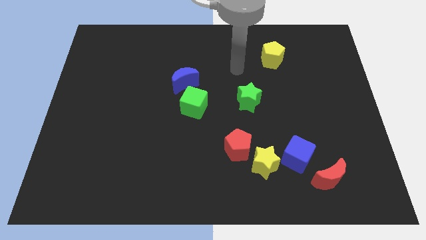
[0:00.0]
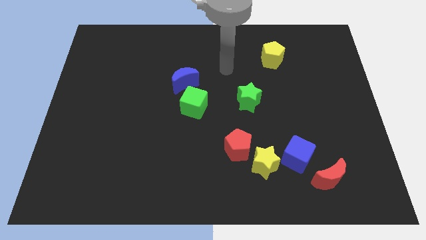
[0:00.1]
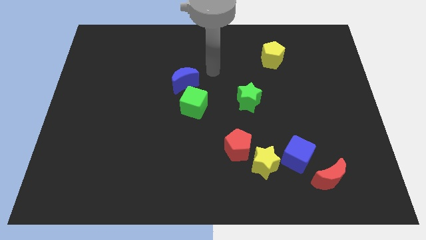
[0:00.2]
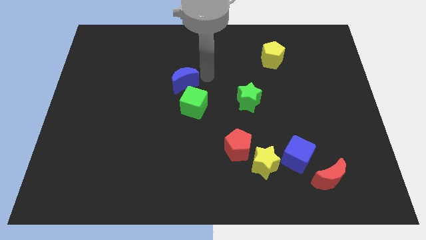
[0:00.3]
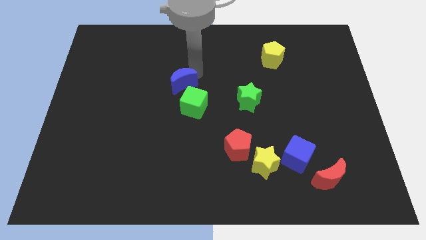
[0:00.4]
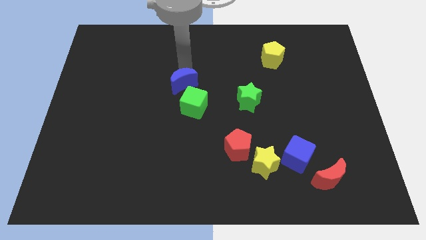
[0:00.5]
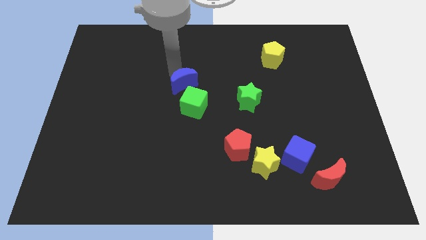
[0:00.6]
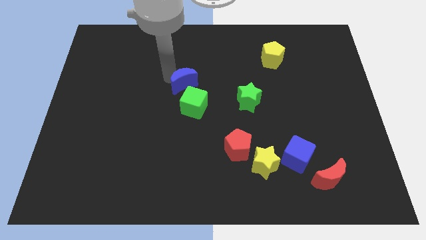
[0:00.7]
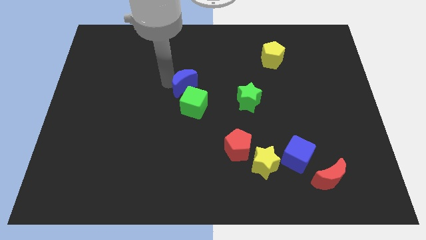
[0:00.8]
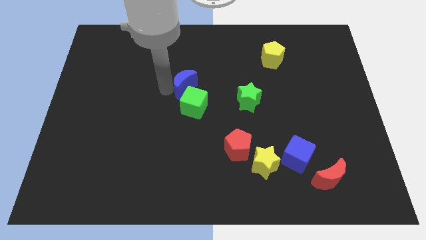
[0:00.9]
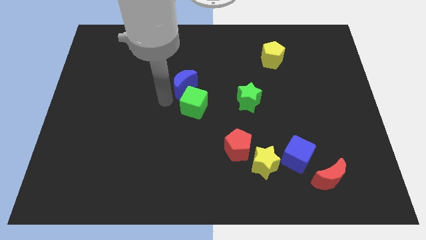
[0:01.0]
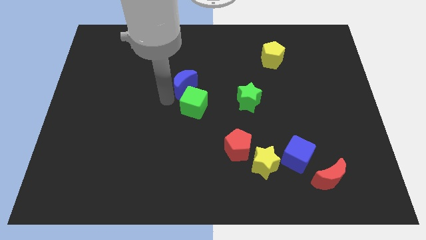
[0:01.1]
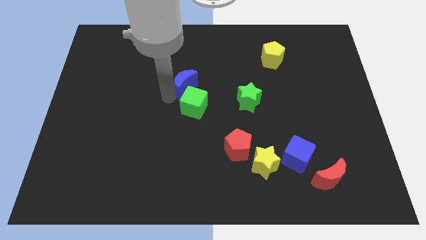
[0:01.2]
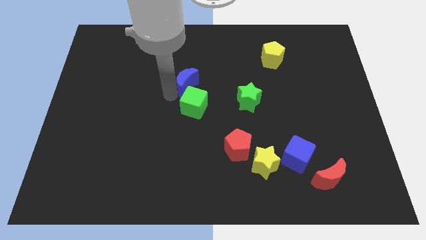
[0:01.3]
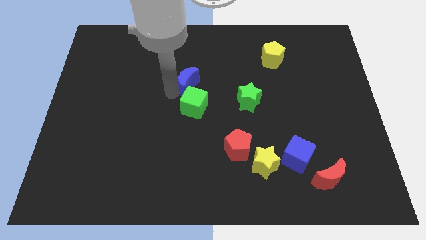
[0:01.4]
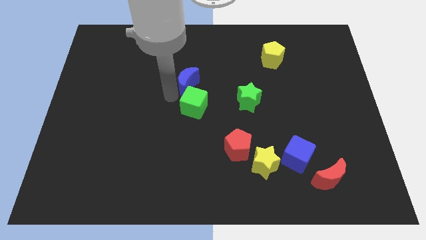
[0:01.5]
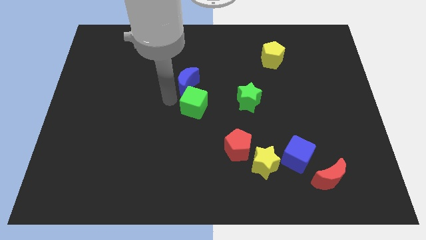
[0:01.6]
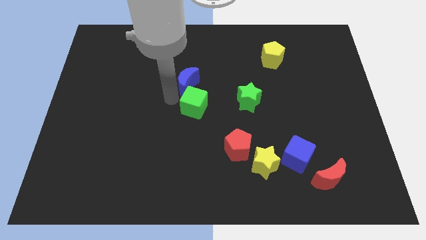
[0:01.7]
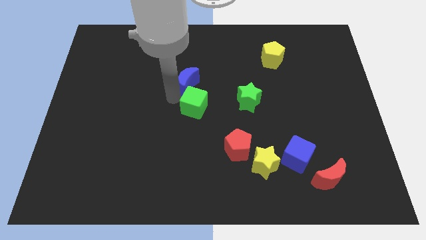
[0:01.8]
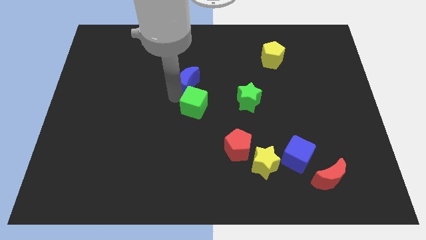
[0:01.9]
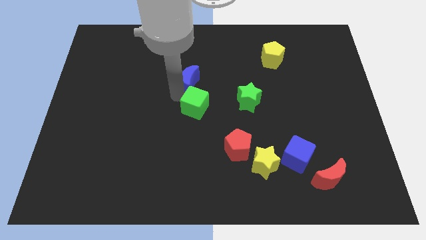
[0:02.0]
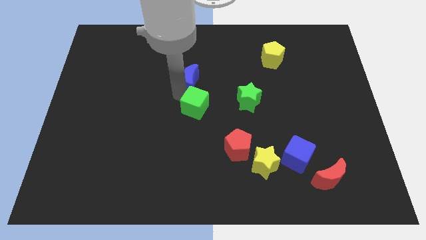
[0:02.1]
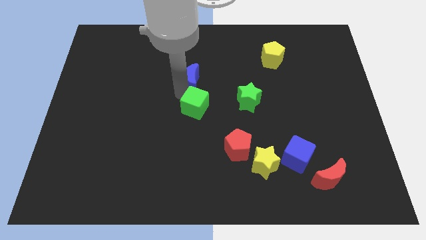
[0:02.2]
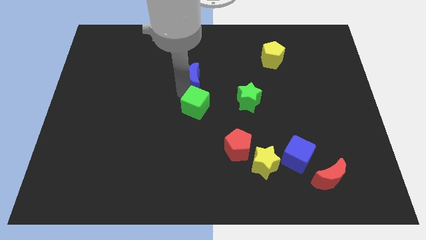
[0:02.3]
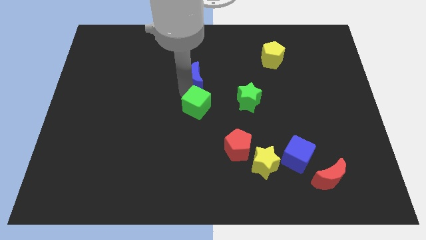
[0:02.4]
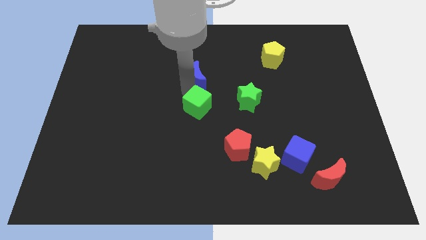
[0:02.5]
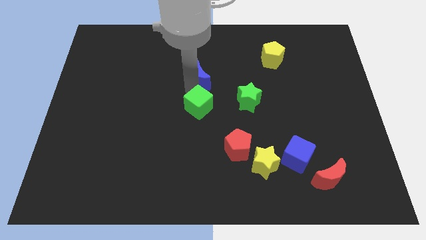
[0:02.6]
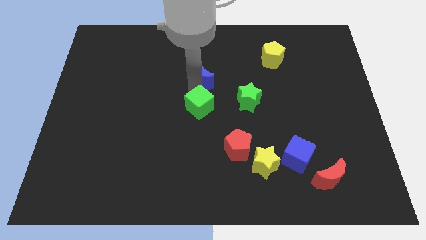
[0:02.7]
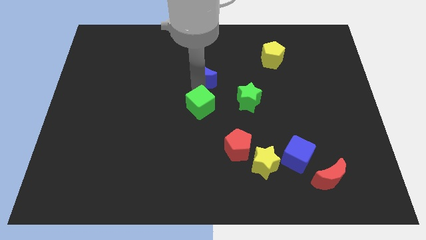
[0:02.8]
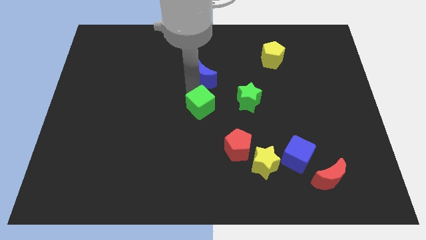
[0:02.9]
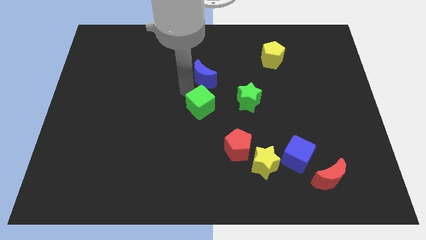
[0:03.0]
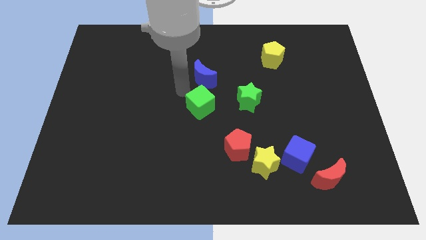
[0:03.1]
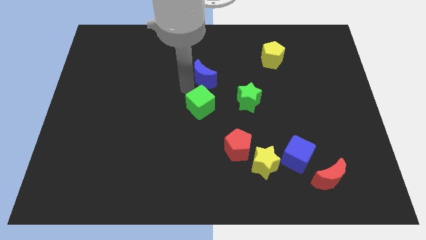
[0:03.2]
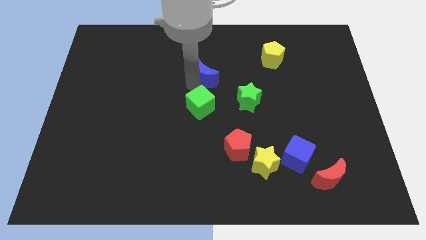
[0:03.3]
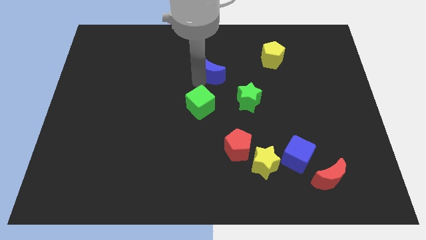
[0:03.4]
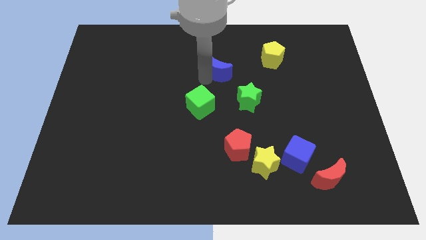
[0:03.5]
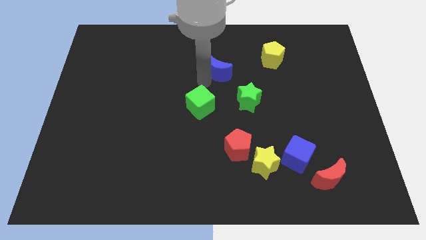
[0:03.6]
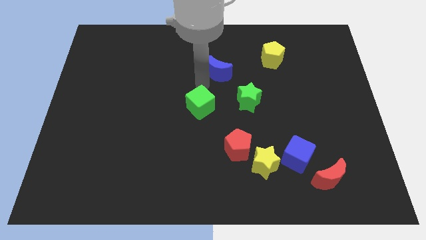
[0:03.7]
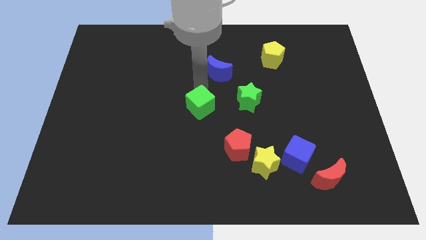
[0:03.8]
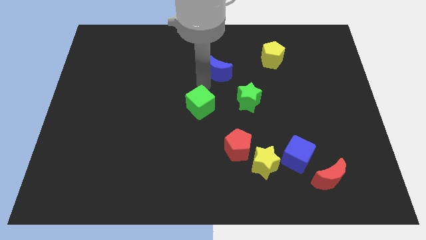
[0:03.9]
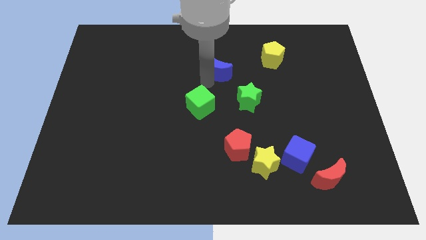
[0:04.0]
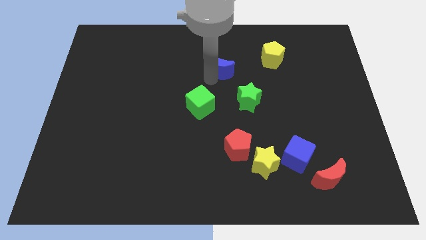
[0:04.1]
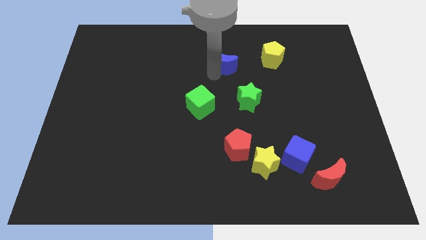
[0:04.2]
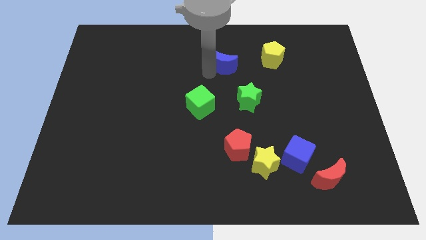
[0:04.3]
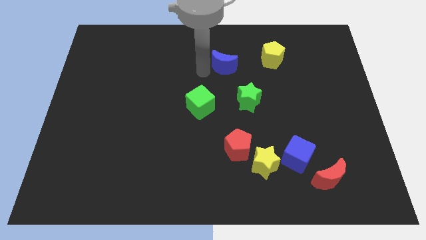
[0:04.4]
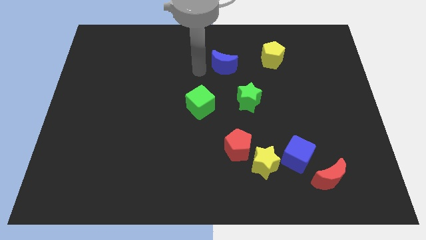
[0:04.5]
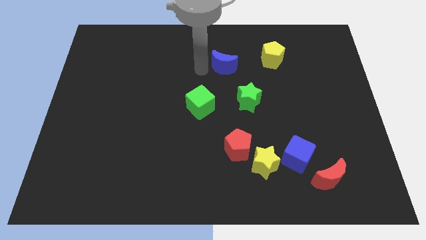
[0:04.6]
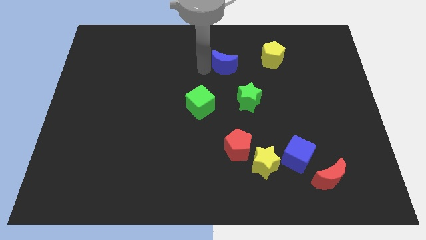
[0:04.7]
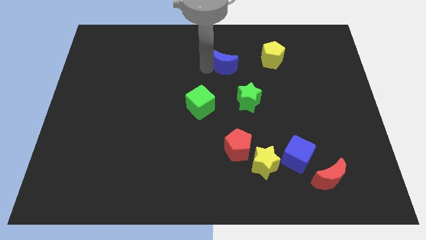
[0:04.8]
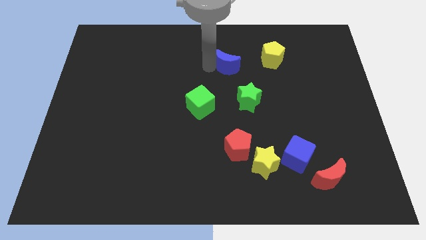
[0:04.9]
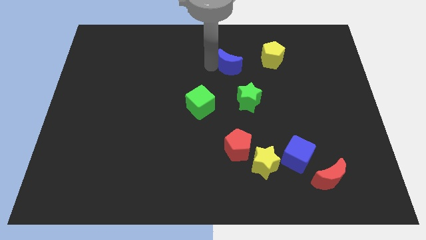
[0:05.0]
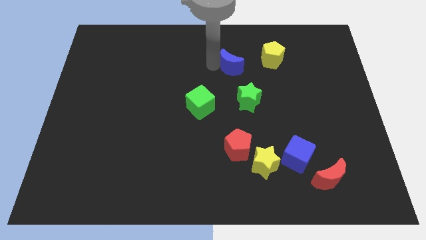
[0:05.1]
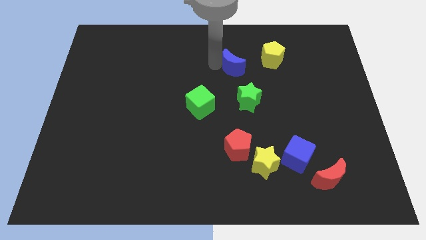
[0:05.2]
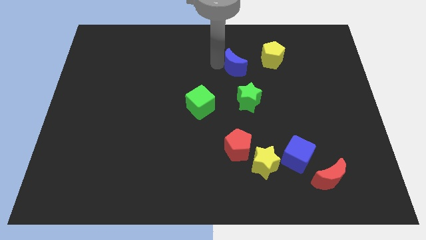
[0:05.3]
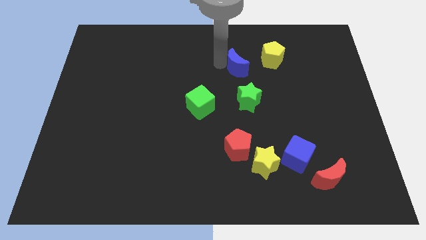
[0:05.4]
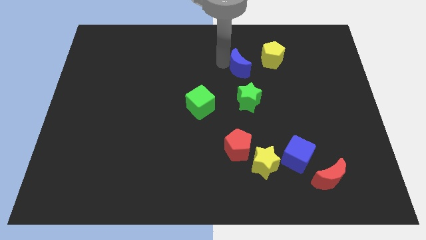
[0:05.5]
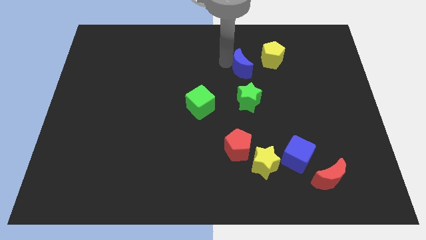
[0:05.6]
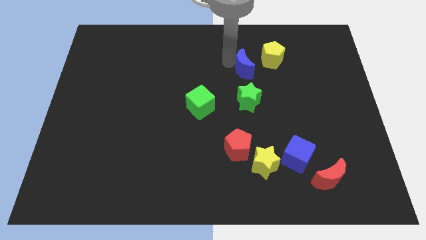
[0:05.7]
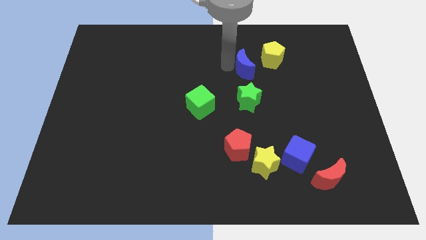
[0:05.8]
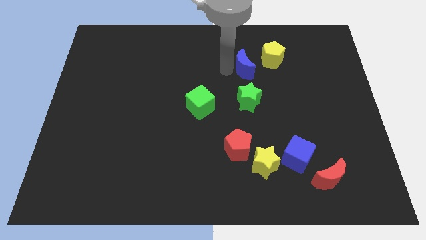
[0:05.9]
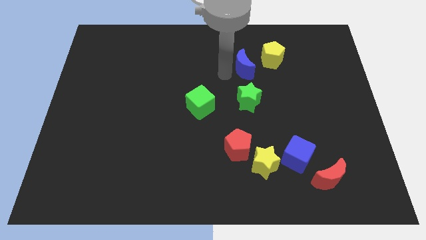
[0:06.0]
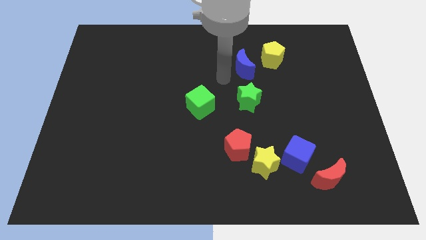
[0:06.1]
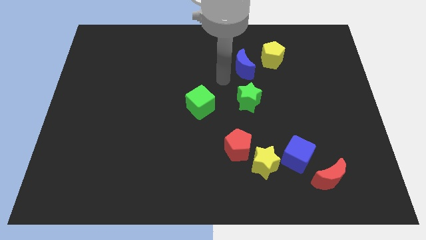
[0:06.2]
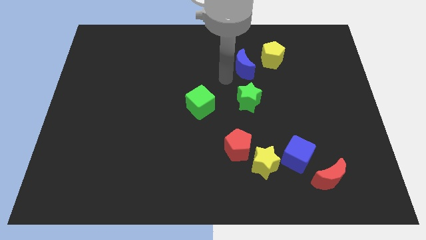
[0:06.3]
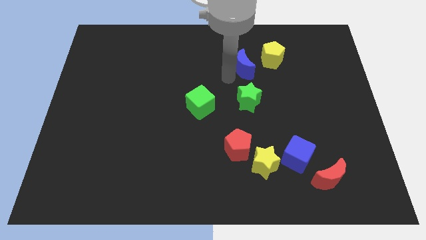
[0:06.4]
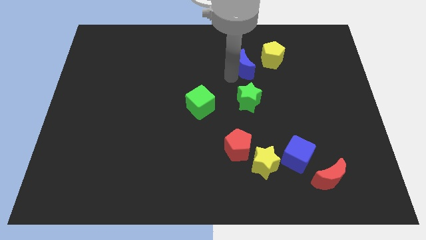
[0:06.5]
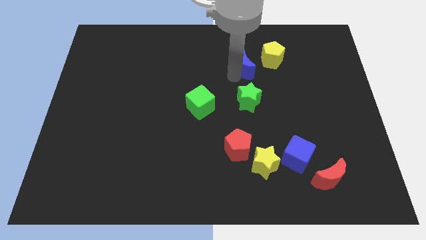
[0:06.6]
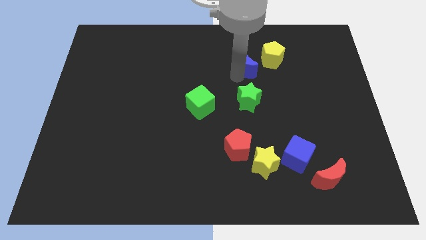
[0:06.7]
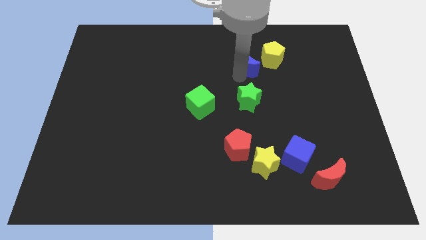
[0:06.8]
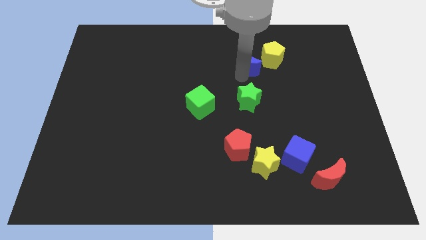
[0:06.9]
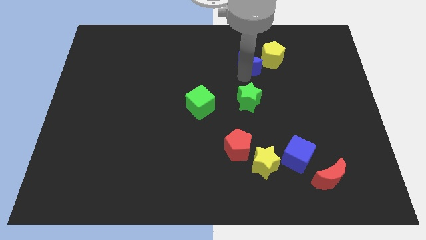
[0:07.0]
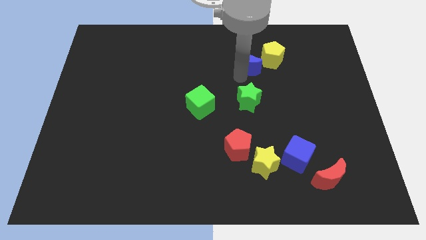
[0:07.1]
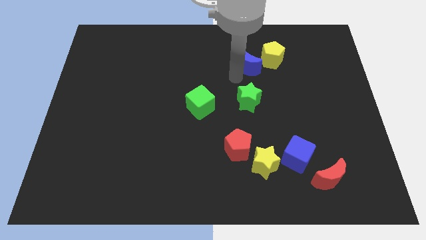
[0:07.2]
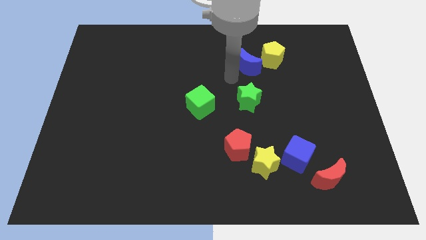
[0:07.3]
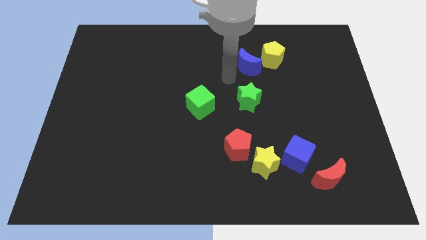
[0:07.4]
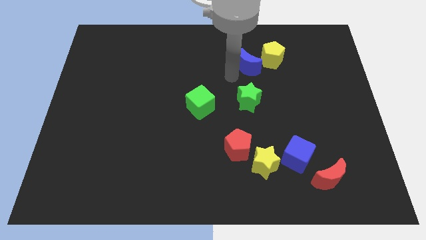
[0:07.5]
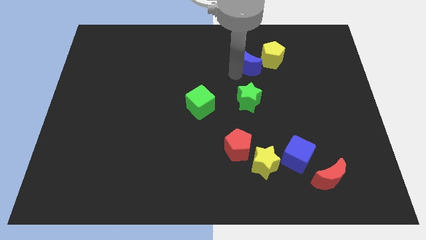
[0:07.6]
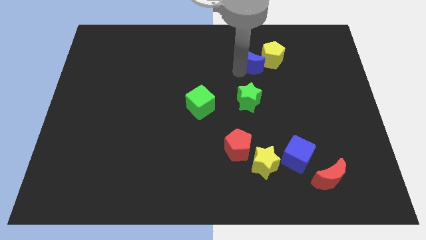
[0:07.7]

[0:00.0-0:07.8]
put the blue moon to the yellow pentagon

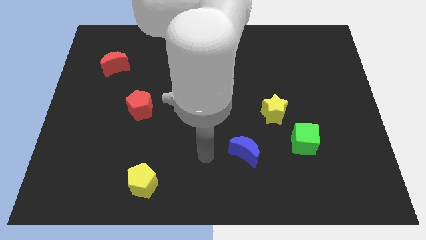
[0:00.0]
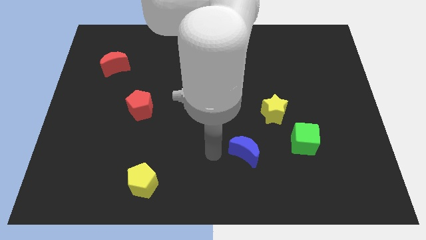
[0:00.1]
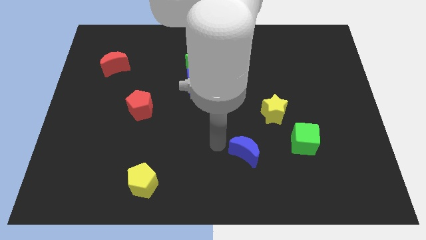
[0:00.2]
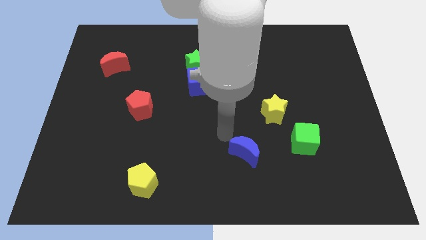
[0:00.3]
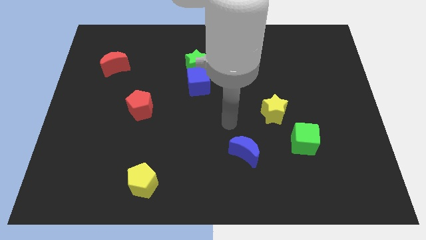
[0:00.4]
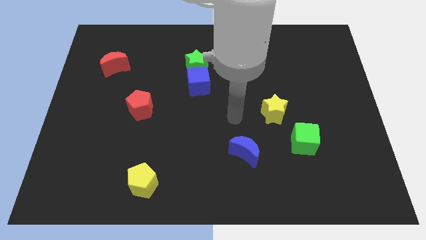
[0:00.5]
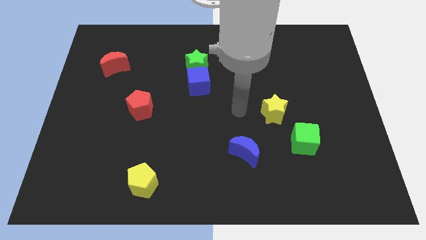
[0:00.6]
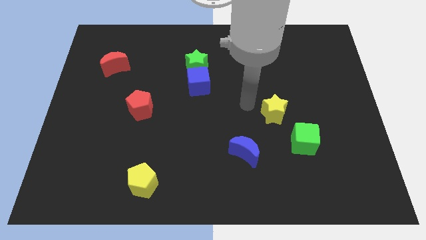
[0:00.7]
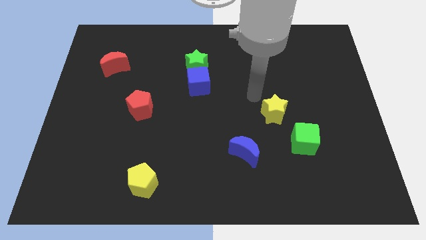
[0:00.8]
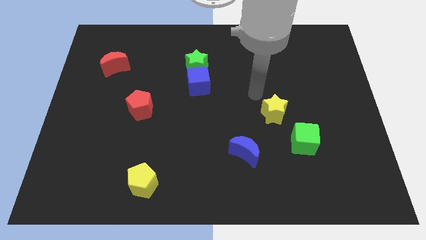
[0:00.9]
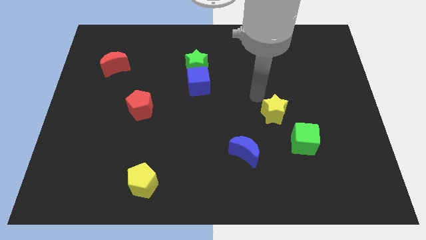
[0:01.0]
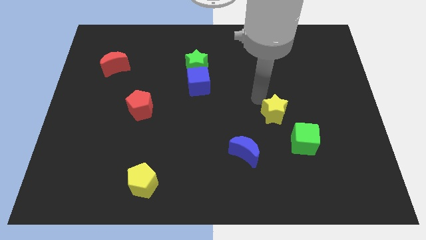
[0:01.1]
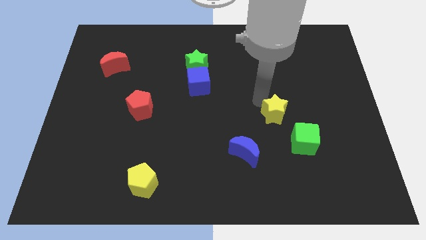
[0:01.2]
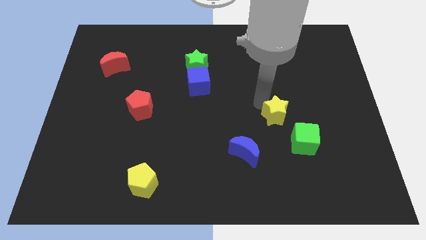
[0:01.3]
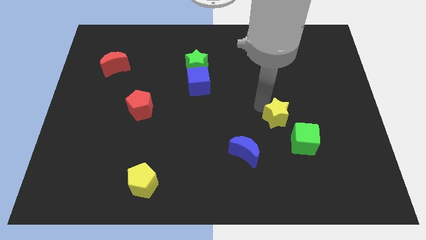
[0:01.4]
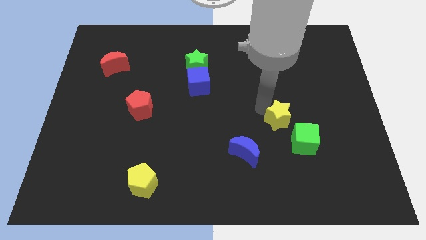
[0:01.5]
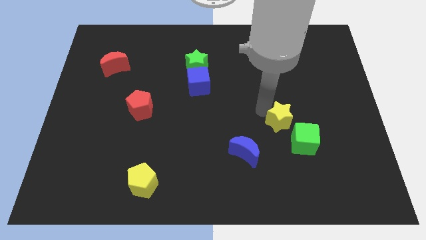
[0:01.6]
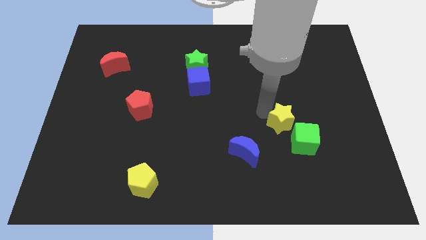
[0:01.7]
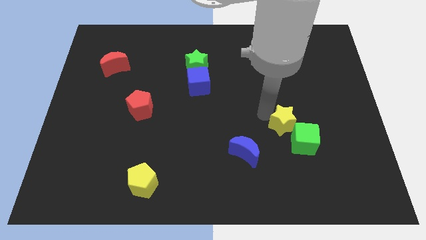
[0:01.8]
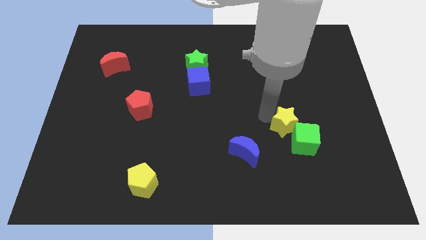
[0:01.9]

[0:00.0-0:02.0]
slide the yellow star next to the green cube
